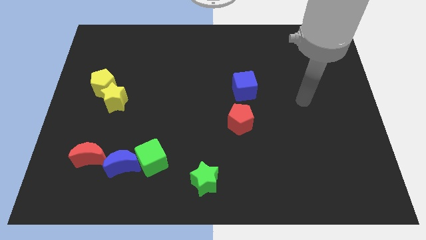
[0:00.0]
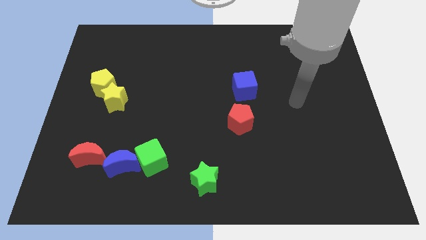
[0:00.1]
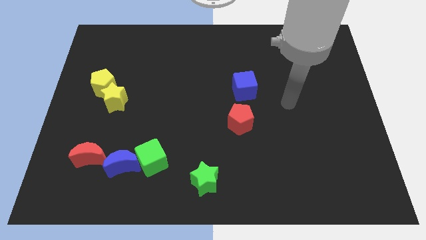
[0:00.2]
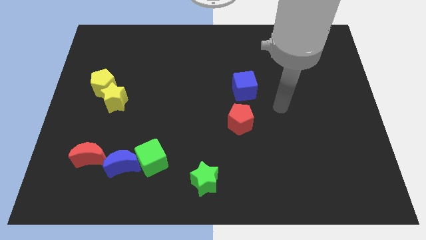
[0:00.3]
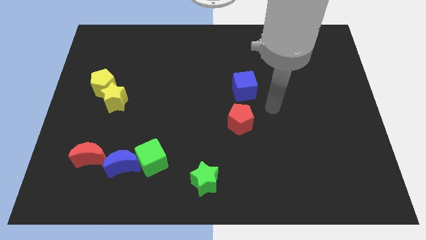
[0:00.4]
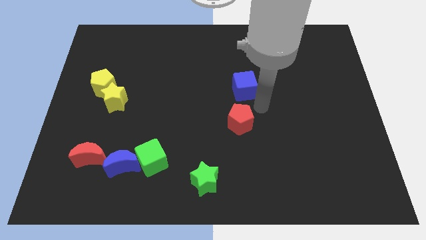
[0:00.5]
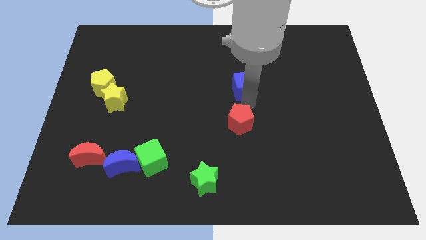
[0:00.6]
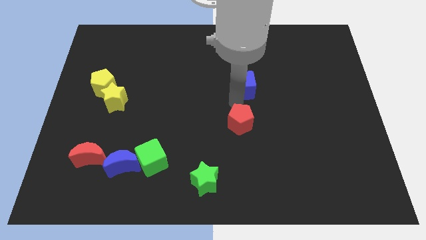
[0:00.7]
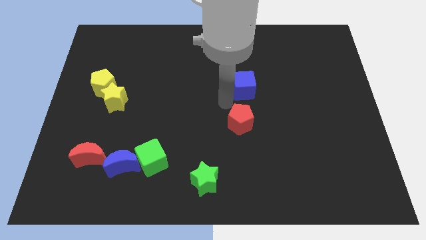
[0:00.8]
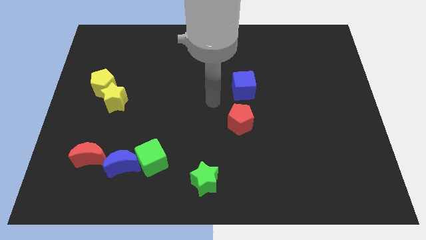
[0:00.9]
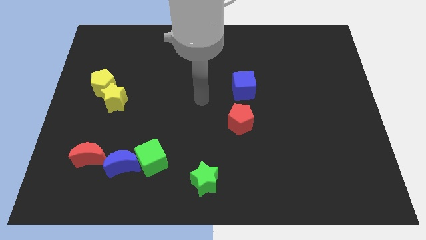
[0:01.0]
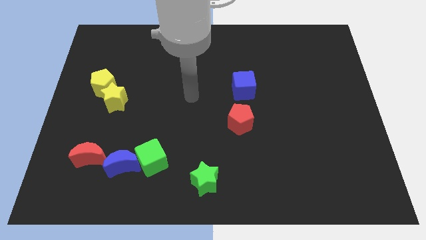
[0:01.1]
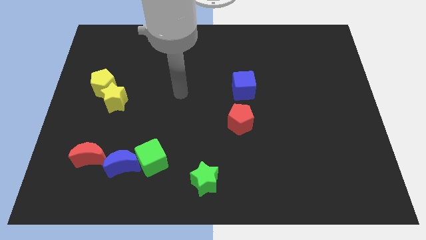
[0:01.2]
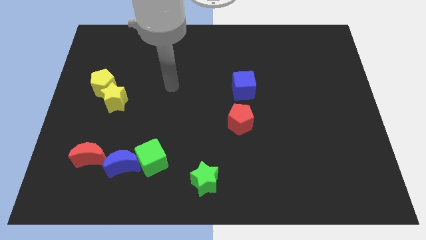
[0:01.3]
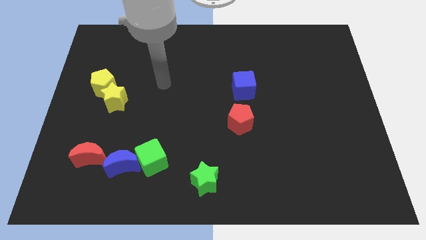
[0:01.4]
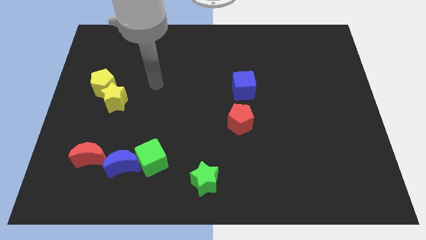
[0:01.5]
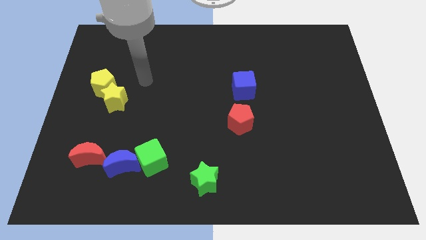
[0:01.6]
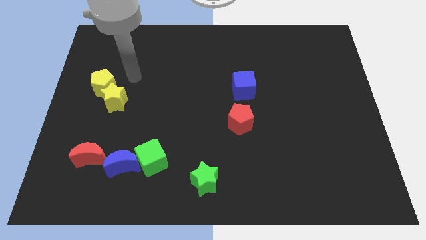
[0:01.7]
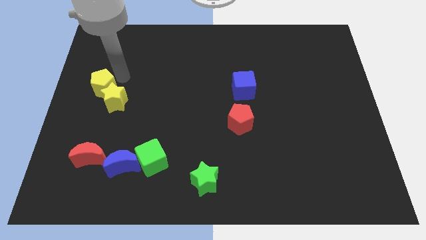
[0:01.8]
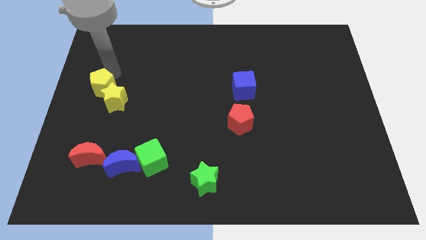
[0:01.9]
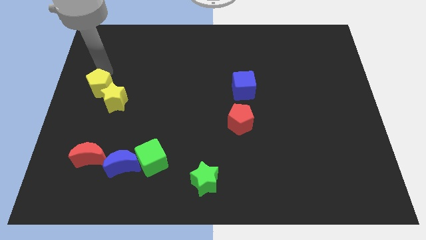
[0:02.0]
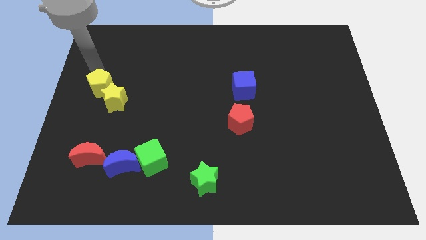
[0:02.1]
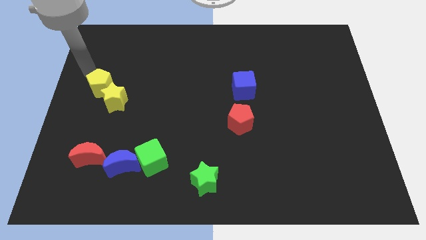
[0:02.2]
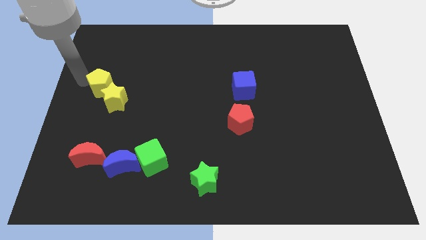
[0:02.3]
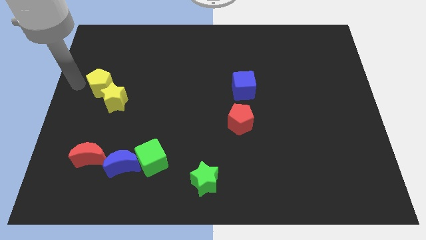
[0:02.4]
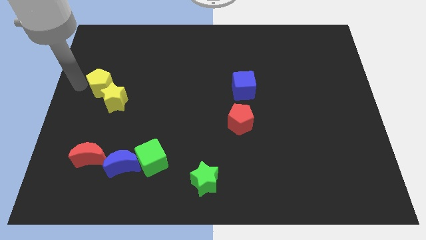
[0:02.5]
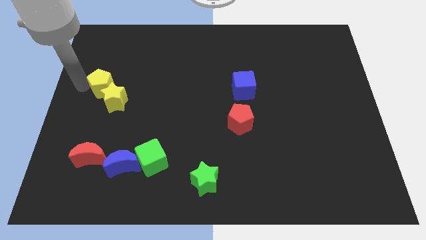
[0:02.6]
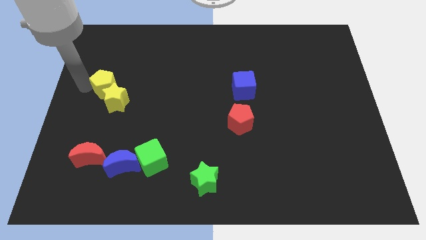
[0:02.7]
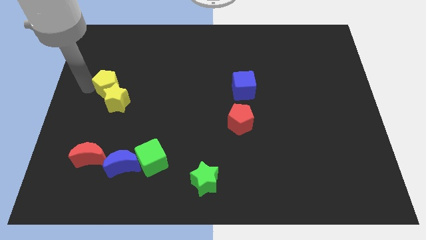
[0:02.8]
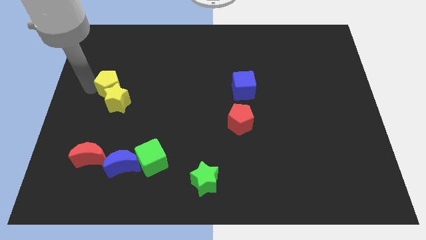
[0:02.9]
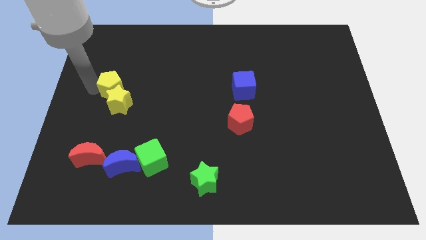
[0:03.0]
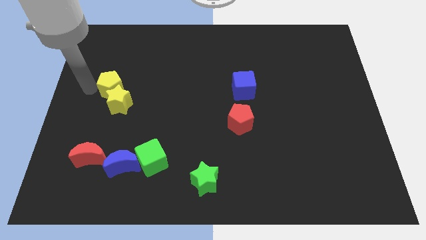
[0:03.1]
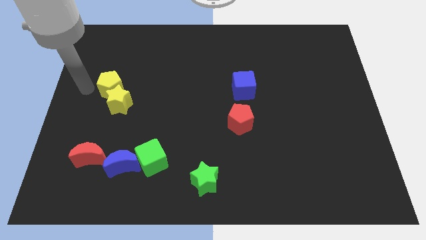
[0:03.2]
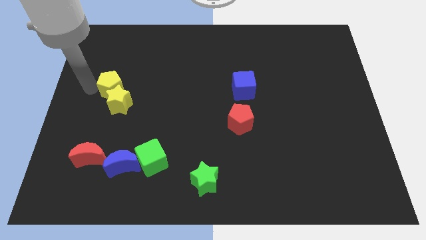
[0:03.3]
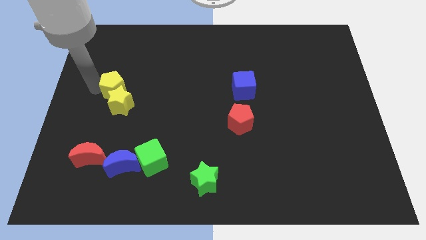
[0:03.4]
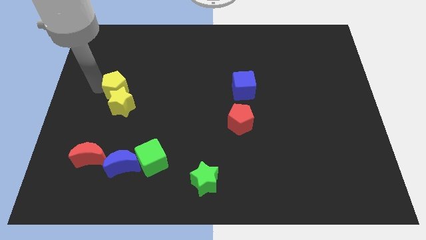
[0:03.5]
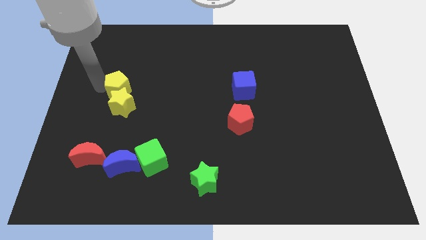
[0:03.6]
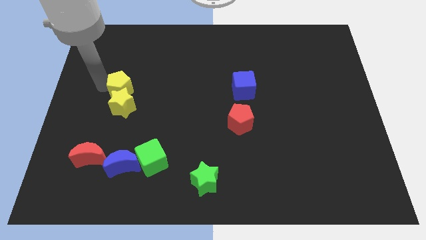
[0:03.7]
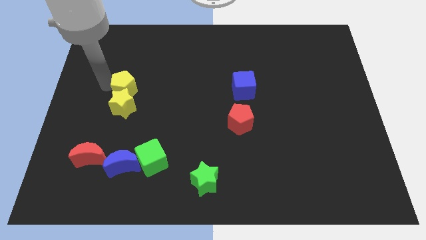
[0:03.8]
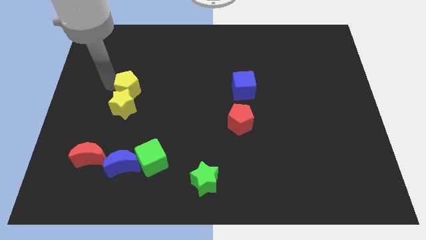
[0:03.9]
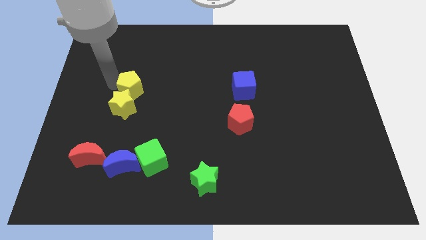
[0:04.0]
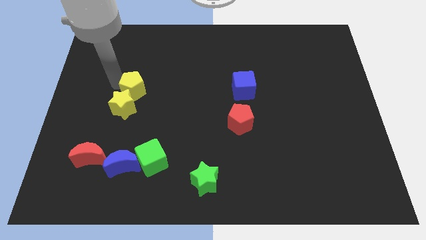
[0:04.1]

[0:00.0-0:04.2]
slightly move the yellow pentagon right

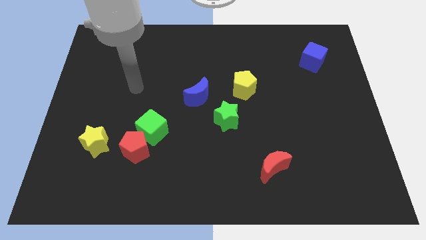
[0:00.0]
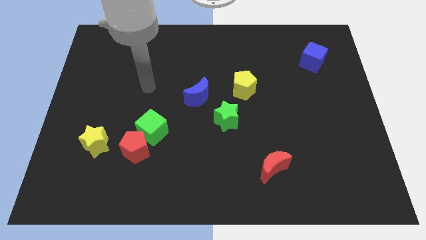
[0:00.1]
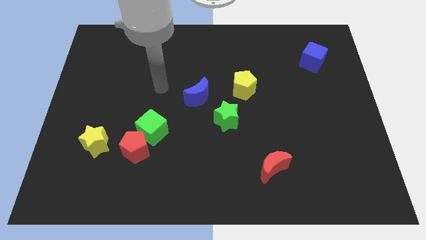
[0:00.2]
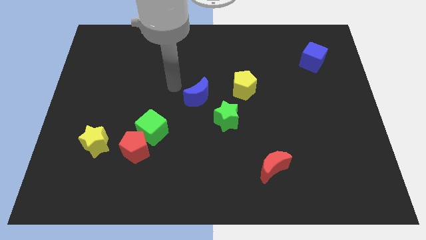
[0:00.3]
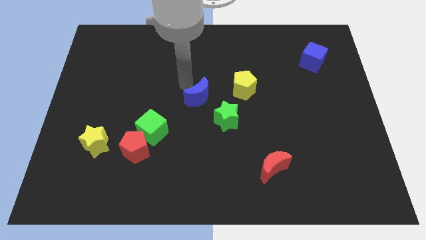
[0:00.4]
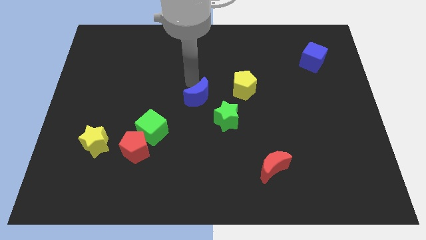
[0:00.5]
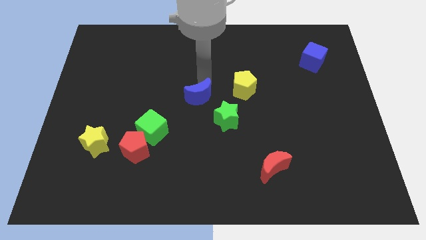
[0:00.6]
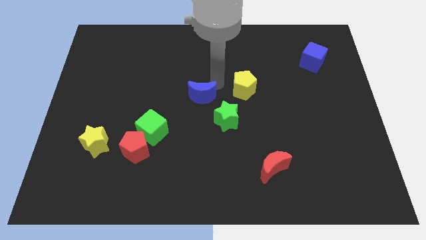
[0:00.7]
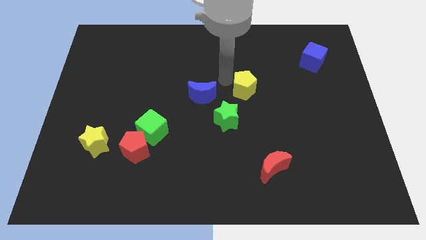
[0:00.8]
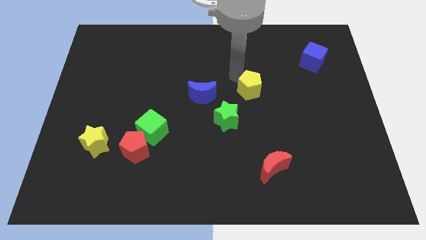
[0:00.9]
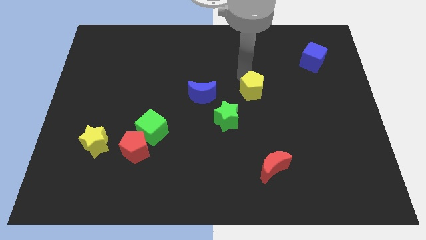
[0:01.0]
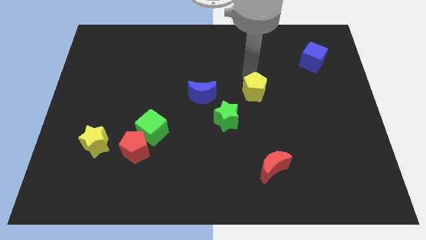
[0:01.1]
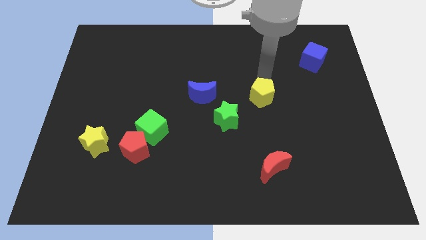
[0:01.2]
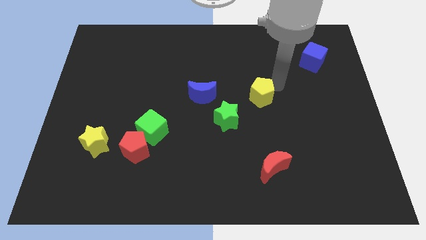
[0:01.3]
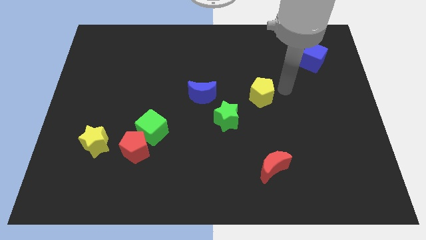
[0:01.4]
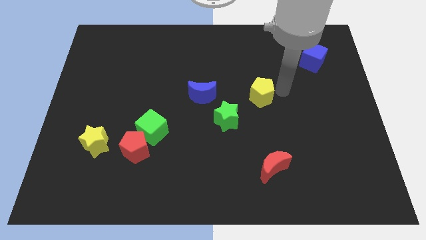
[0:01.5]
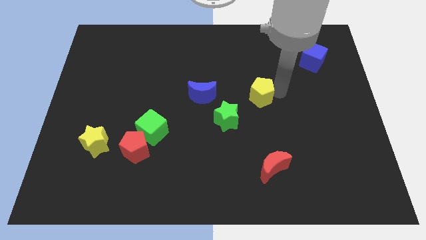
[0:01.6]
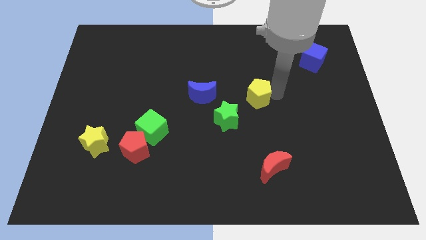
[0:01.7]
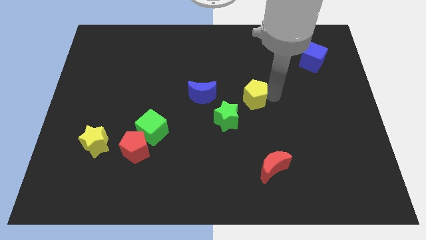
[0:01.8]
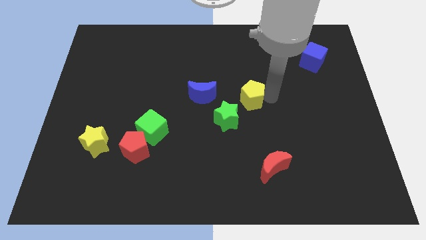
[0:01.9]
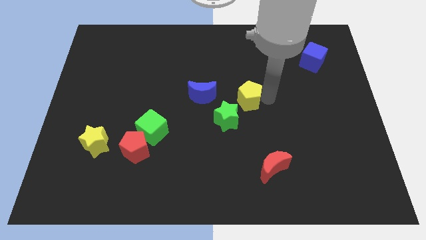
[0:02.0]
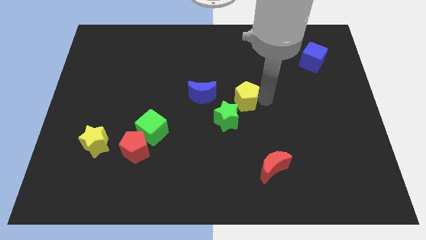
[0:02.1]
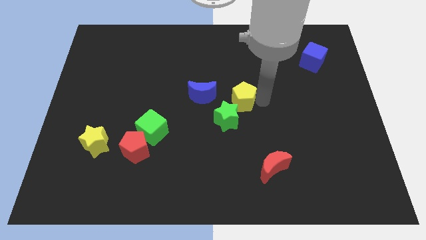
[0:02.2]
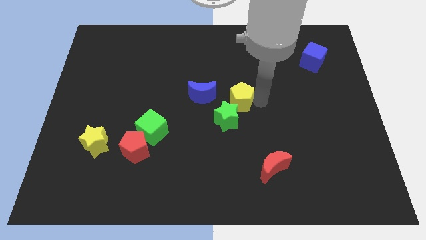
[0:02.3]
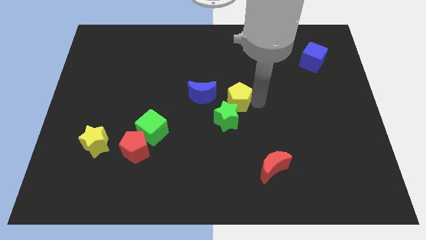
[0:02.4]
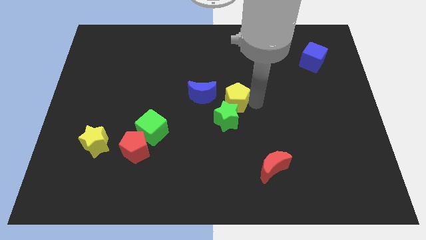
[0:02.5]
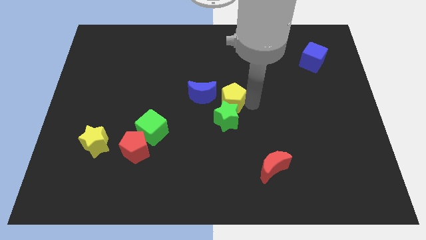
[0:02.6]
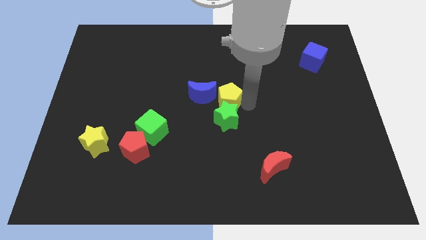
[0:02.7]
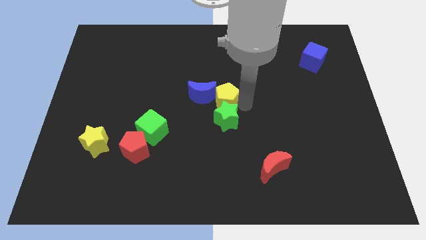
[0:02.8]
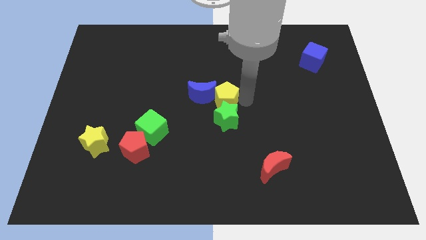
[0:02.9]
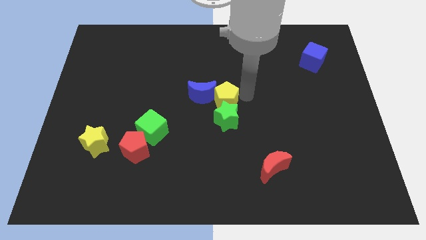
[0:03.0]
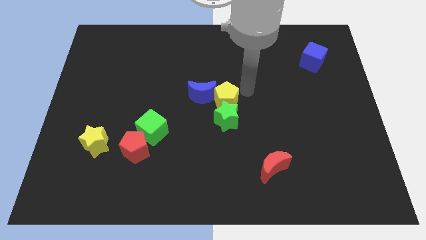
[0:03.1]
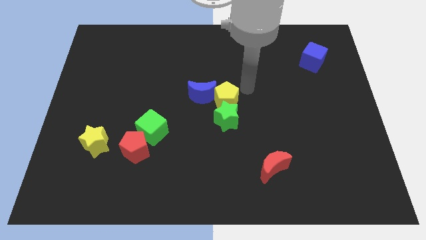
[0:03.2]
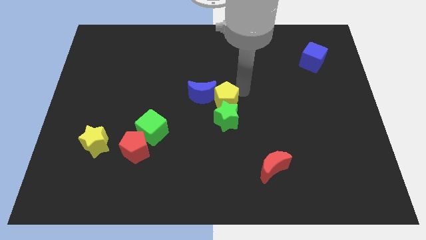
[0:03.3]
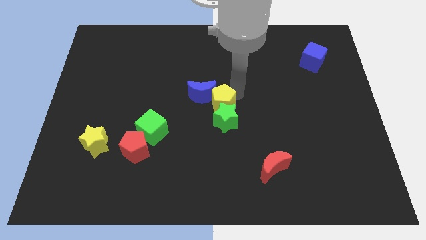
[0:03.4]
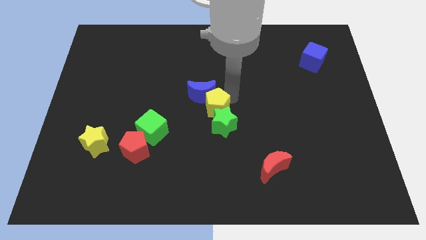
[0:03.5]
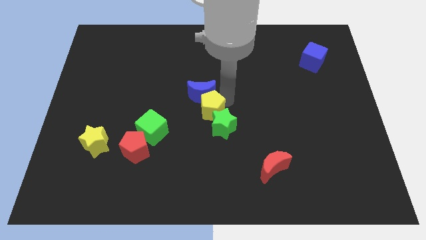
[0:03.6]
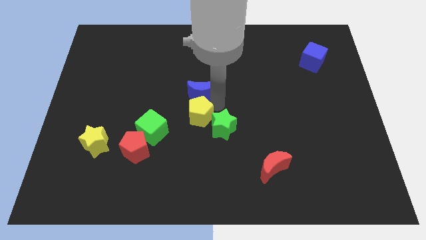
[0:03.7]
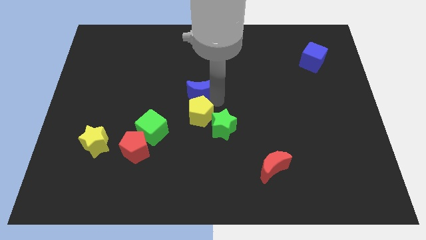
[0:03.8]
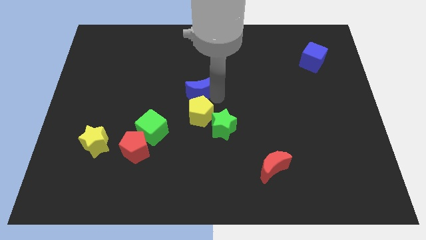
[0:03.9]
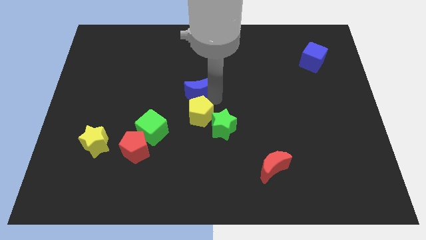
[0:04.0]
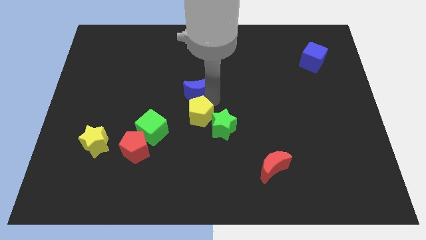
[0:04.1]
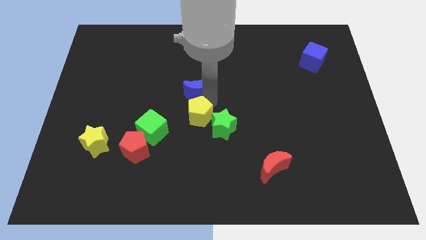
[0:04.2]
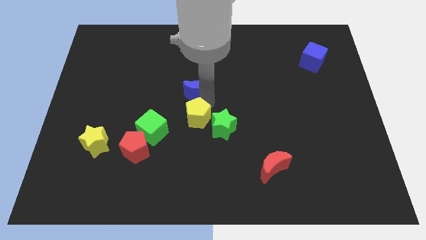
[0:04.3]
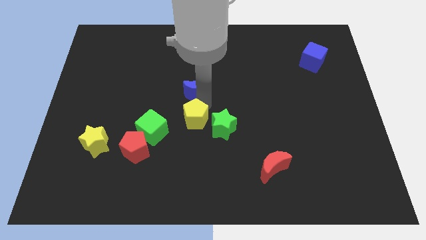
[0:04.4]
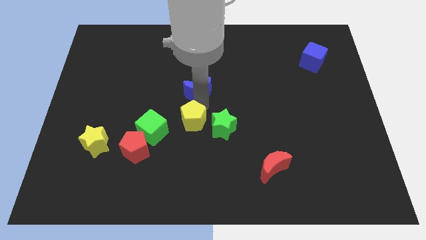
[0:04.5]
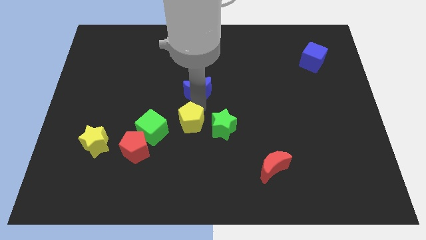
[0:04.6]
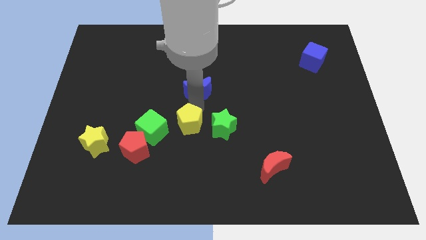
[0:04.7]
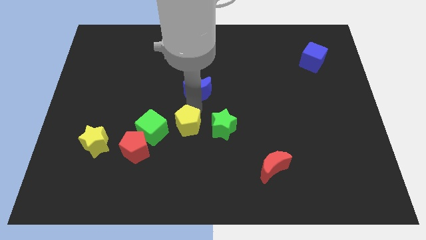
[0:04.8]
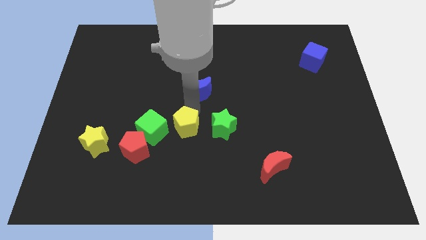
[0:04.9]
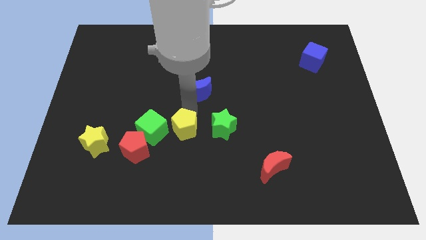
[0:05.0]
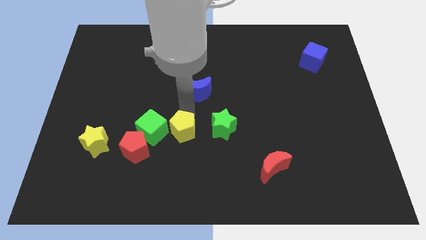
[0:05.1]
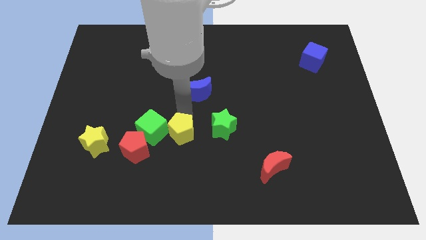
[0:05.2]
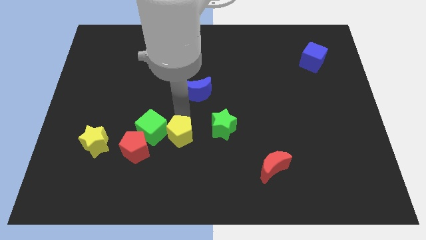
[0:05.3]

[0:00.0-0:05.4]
move the yellow pentagon diagonally down and to the left
